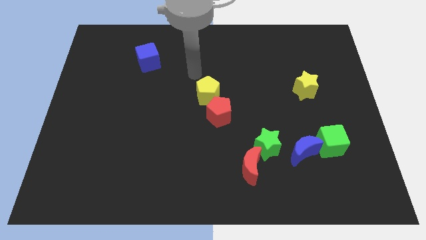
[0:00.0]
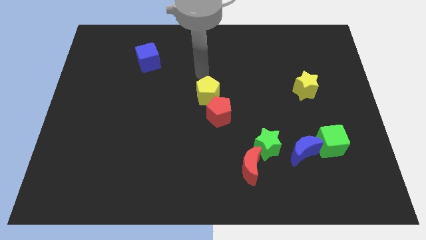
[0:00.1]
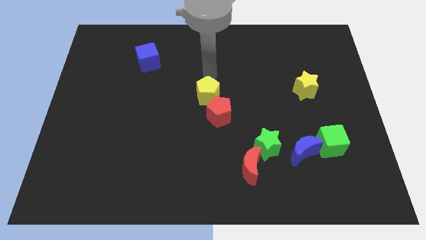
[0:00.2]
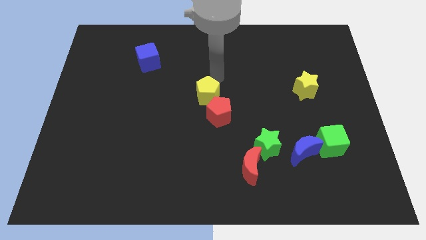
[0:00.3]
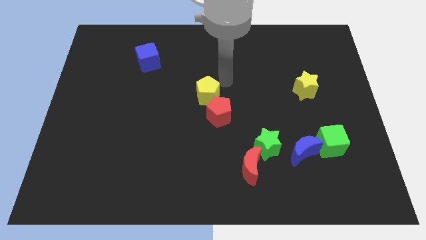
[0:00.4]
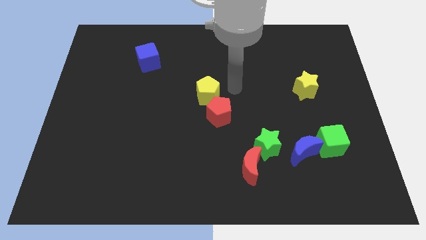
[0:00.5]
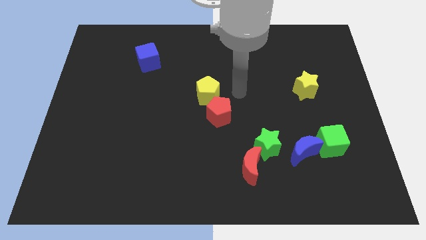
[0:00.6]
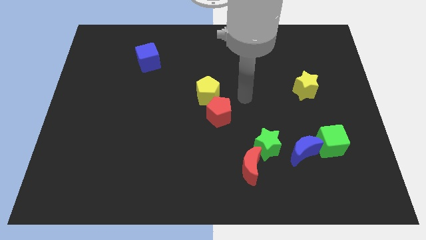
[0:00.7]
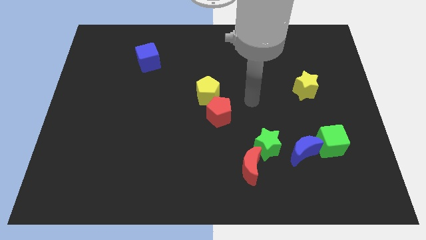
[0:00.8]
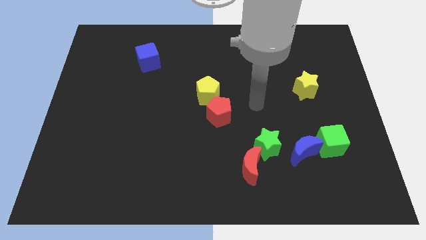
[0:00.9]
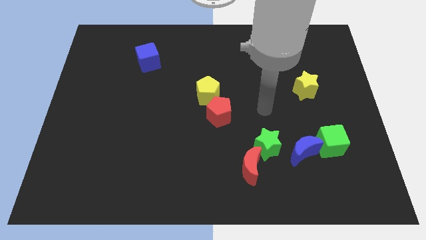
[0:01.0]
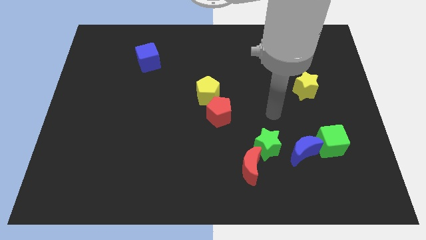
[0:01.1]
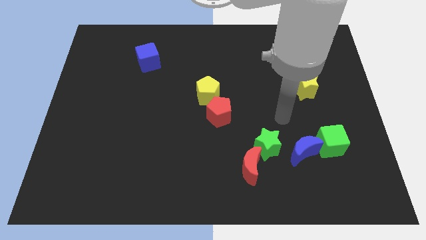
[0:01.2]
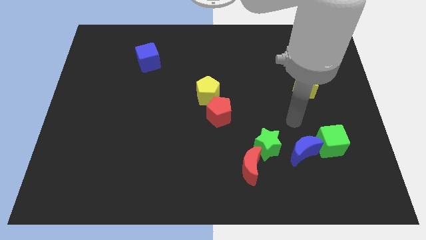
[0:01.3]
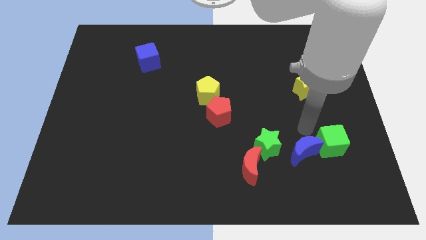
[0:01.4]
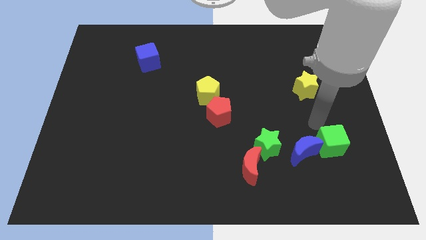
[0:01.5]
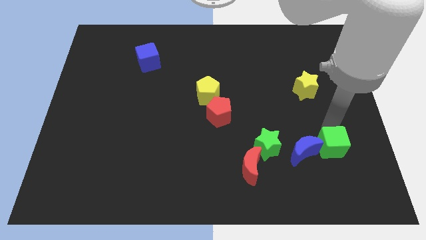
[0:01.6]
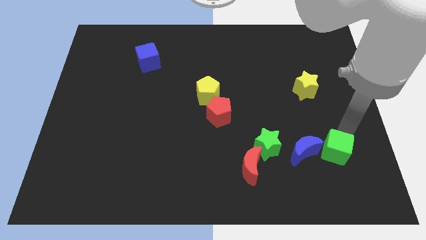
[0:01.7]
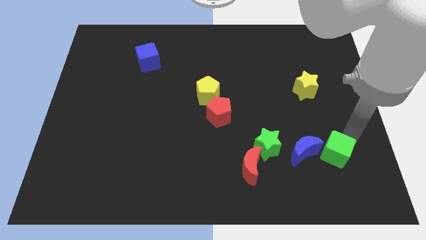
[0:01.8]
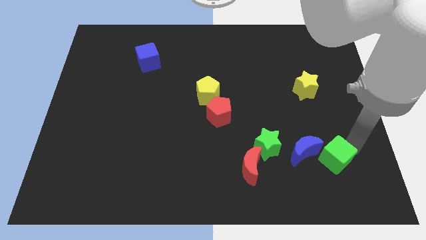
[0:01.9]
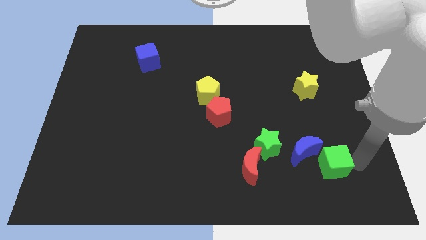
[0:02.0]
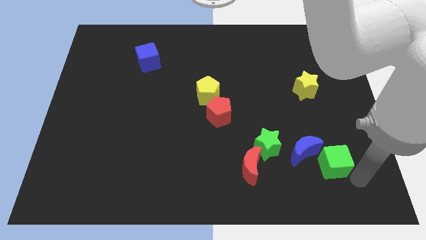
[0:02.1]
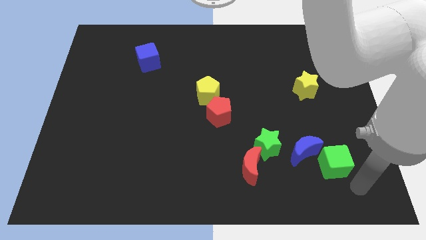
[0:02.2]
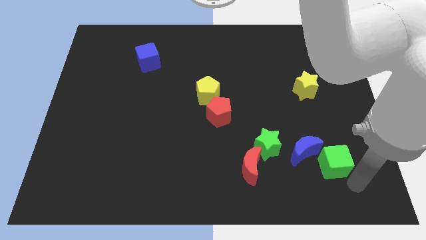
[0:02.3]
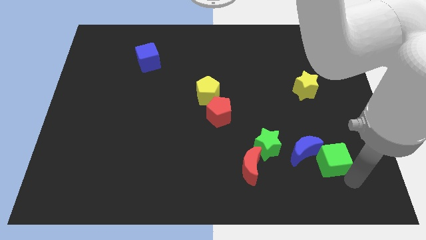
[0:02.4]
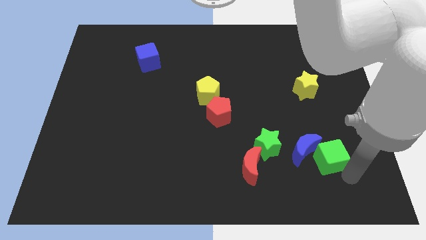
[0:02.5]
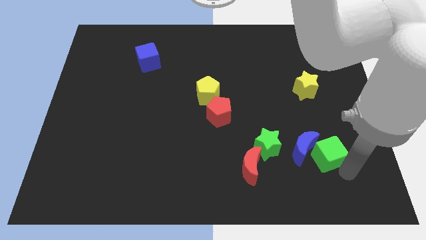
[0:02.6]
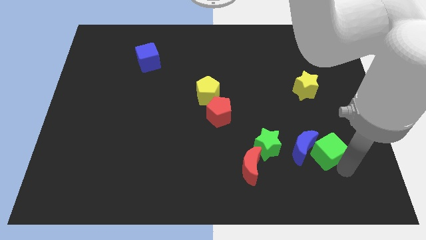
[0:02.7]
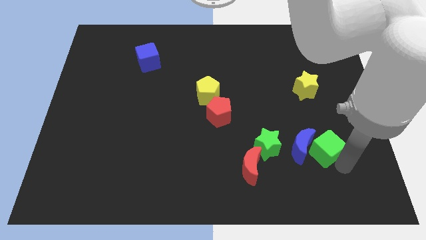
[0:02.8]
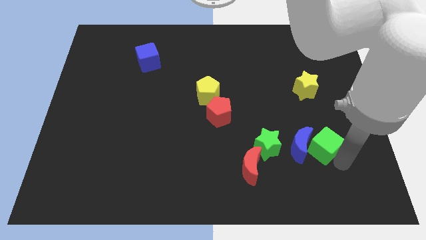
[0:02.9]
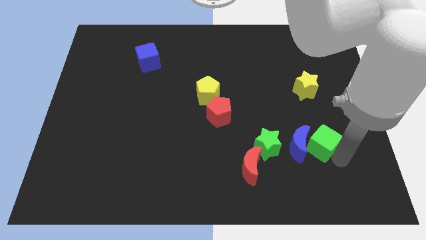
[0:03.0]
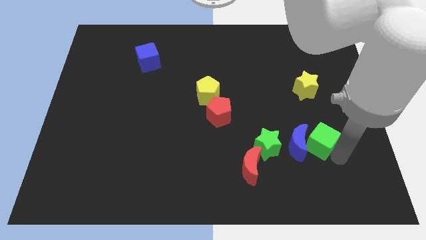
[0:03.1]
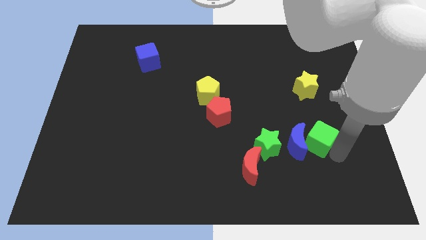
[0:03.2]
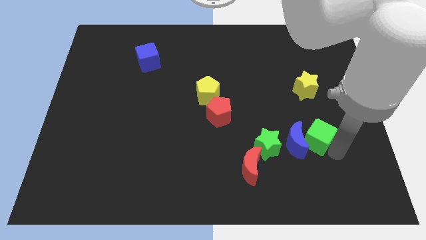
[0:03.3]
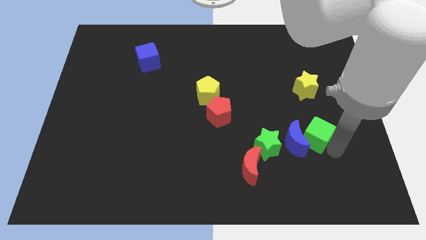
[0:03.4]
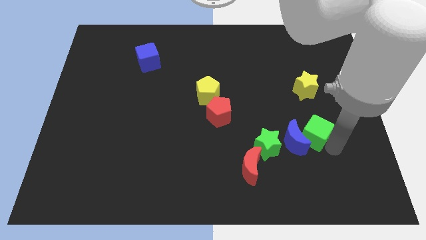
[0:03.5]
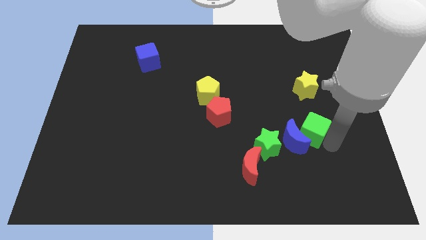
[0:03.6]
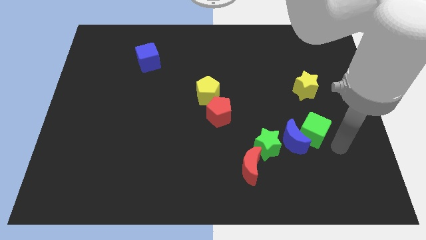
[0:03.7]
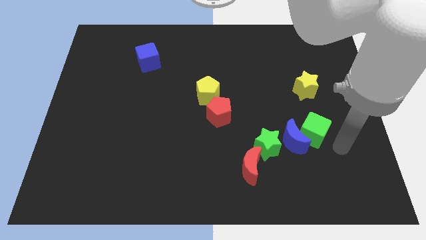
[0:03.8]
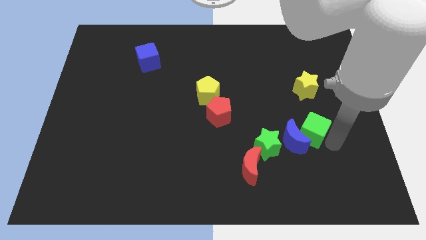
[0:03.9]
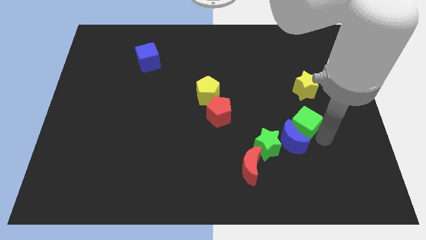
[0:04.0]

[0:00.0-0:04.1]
push the green cube somewhat upwards and then to the left

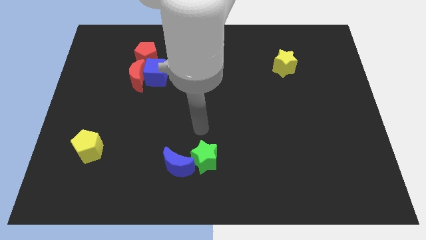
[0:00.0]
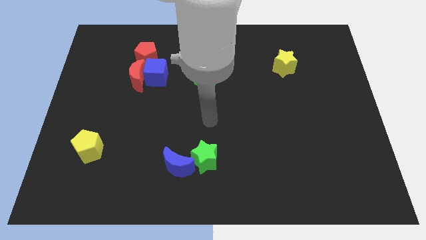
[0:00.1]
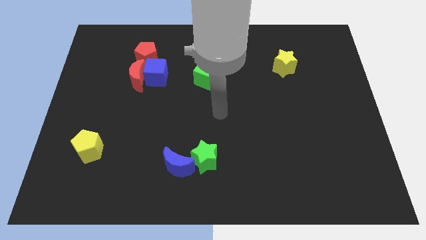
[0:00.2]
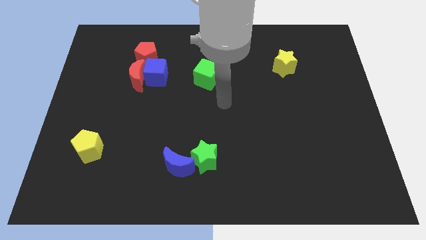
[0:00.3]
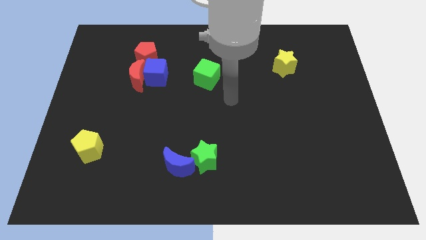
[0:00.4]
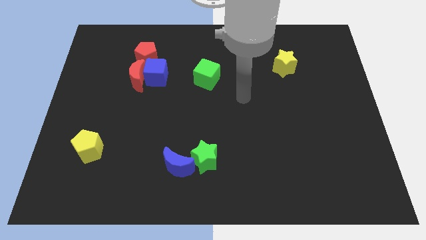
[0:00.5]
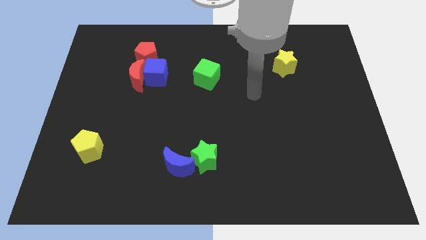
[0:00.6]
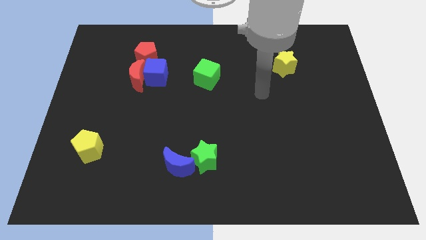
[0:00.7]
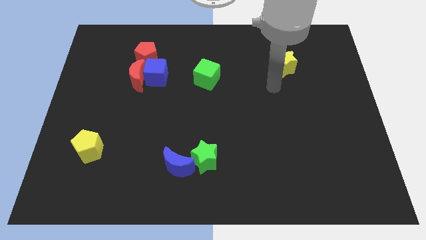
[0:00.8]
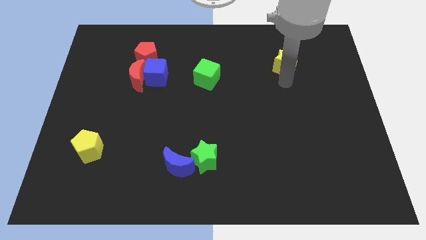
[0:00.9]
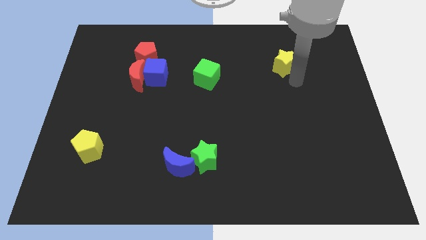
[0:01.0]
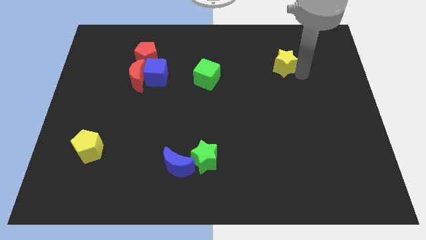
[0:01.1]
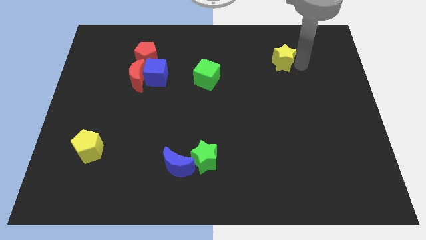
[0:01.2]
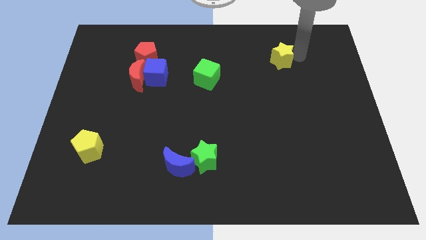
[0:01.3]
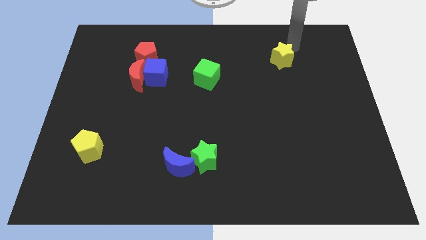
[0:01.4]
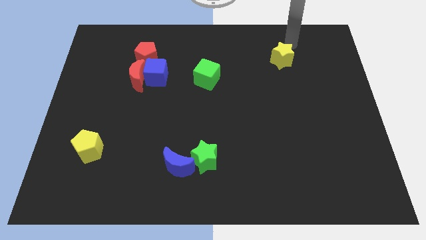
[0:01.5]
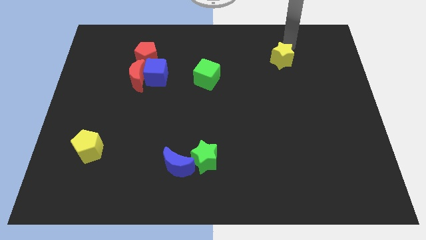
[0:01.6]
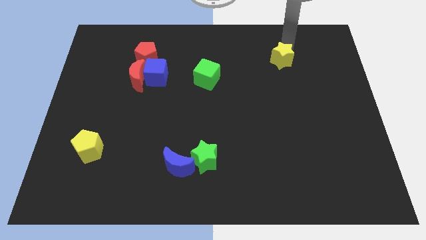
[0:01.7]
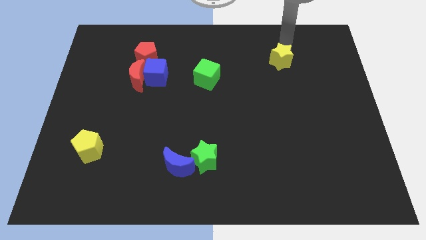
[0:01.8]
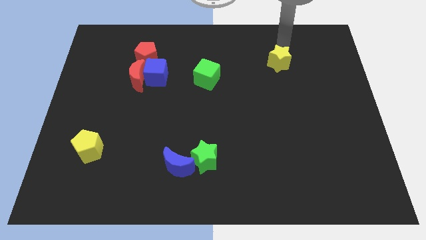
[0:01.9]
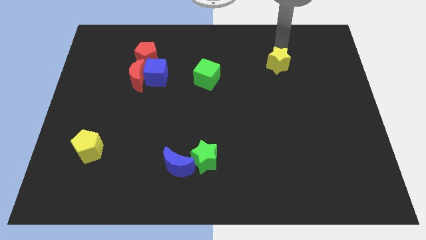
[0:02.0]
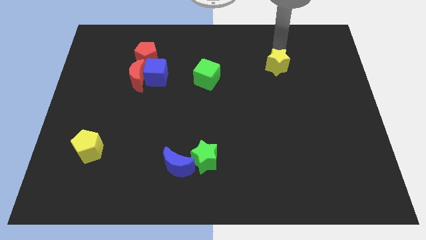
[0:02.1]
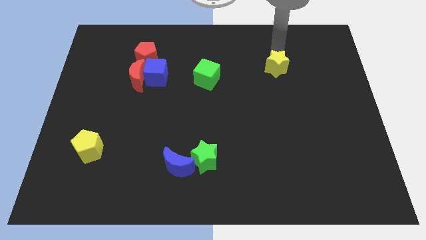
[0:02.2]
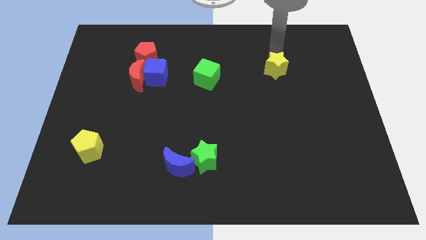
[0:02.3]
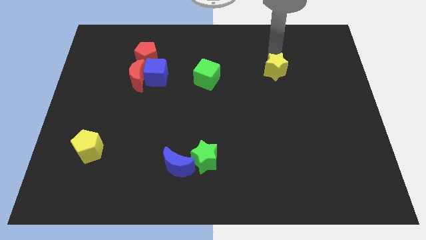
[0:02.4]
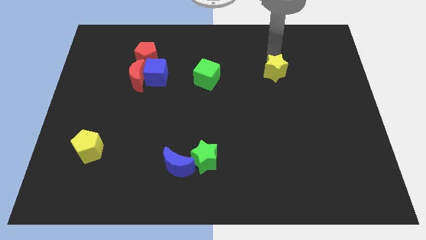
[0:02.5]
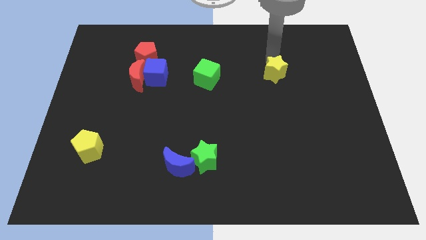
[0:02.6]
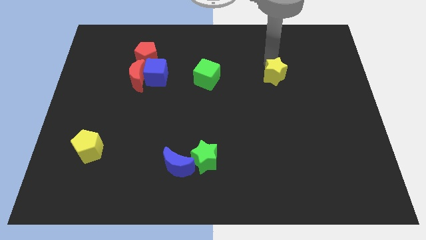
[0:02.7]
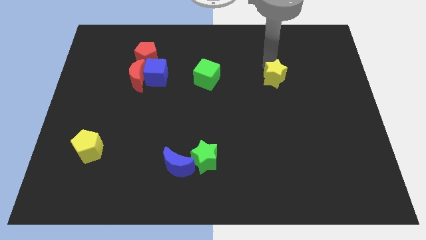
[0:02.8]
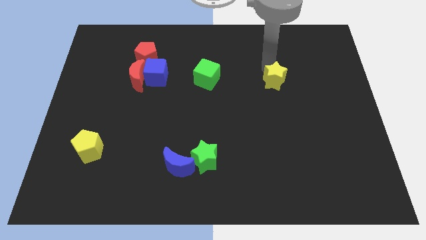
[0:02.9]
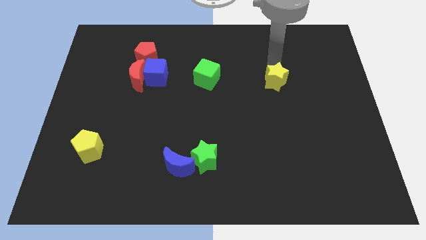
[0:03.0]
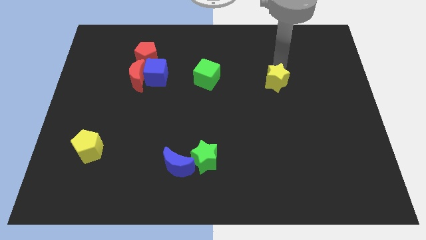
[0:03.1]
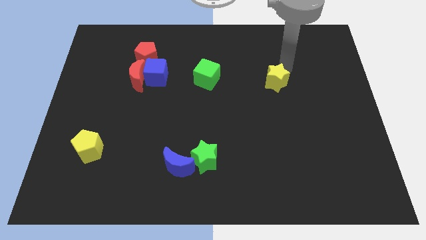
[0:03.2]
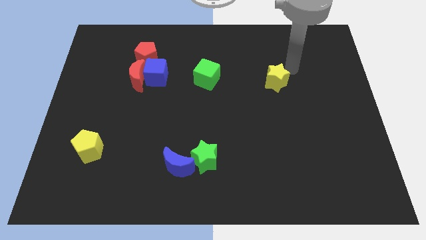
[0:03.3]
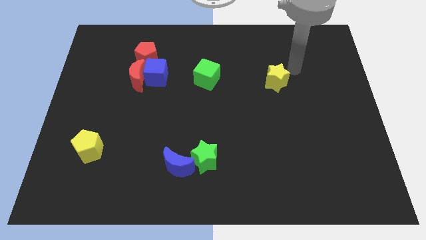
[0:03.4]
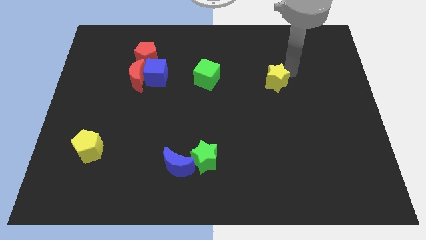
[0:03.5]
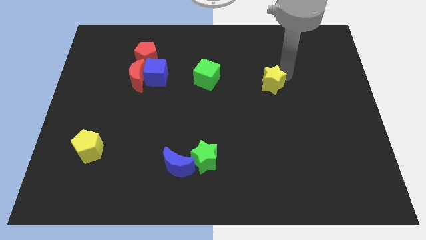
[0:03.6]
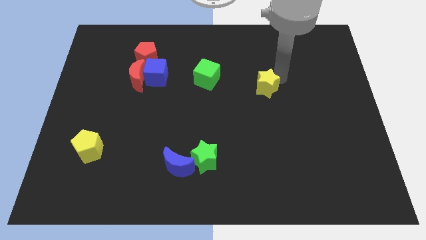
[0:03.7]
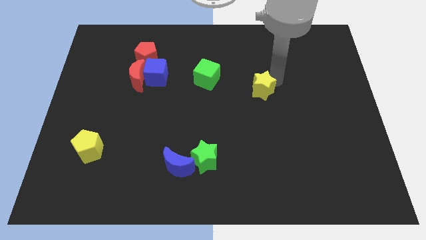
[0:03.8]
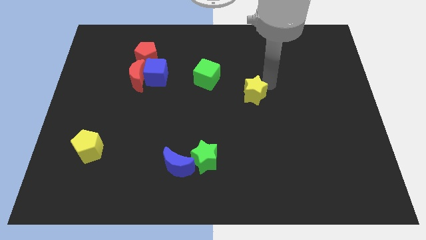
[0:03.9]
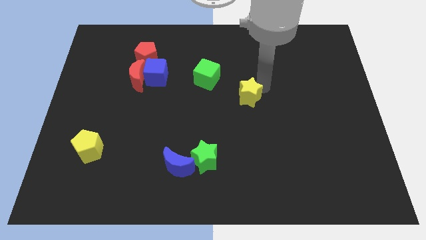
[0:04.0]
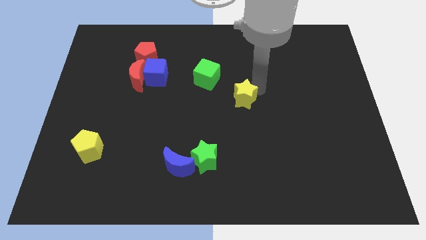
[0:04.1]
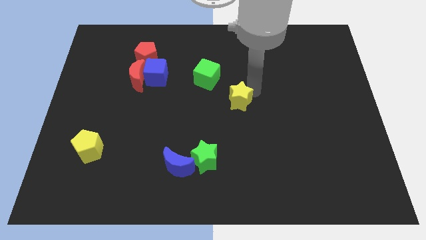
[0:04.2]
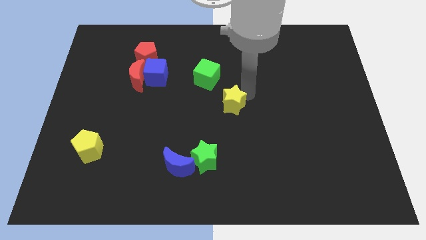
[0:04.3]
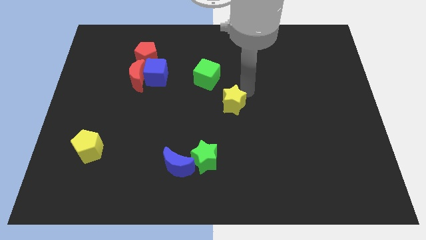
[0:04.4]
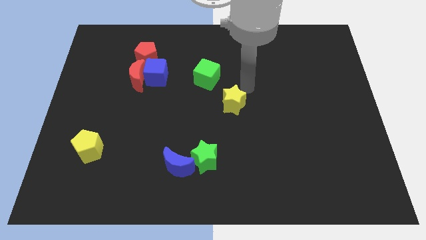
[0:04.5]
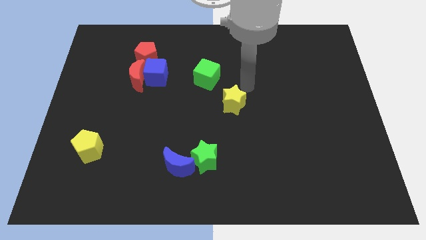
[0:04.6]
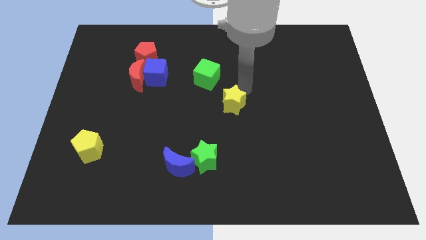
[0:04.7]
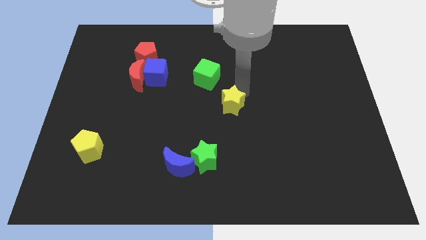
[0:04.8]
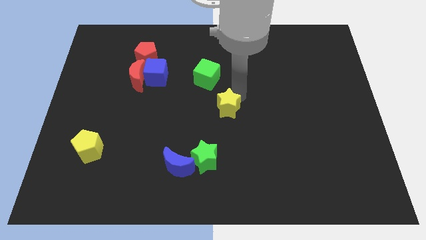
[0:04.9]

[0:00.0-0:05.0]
push the yellow star down and to the left
